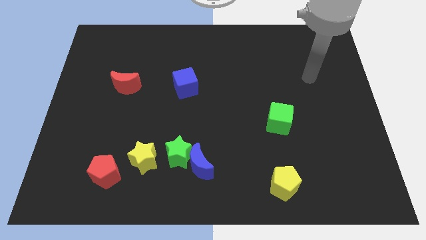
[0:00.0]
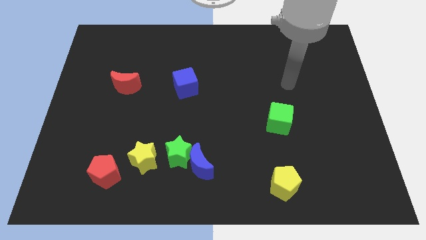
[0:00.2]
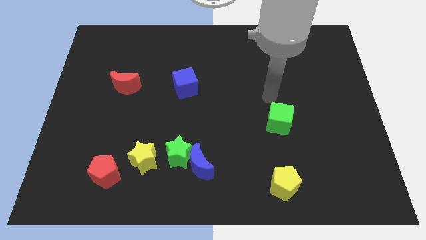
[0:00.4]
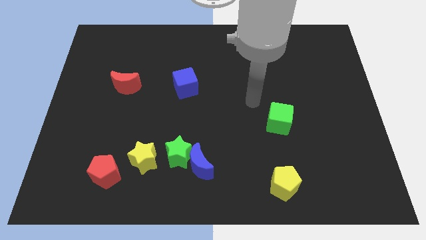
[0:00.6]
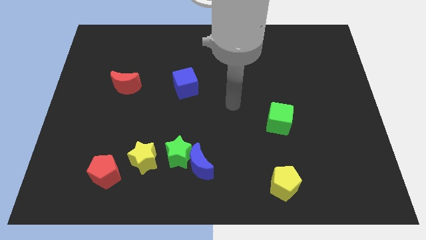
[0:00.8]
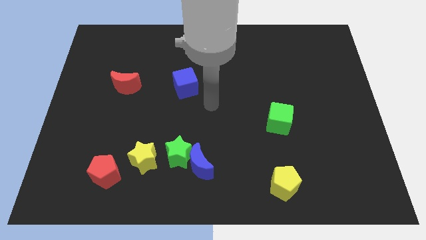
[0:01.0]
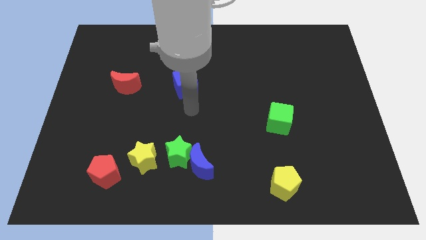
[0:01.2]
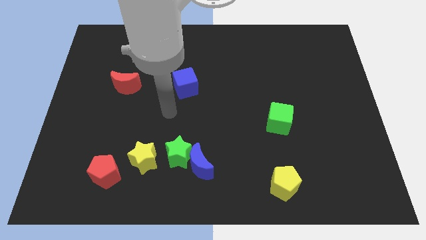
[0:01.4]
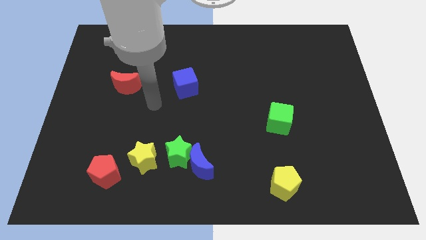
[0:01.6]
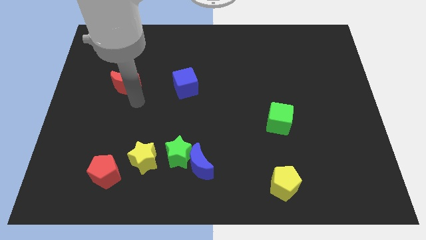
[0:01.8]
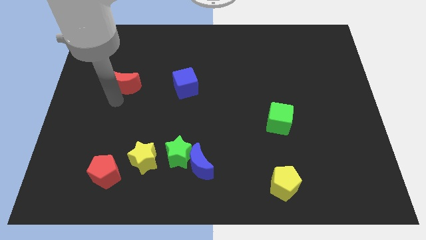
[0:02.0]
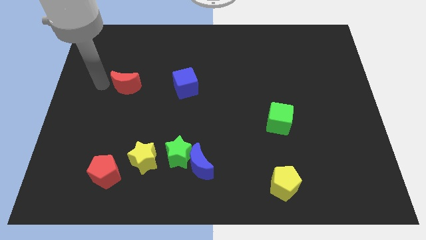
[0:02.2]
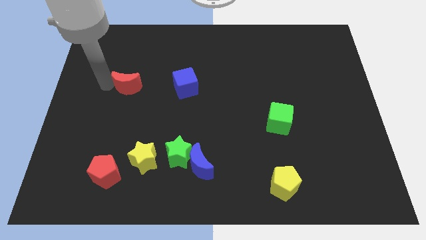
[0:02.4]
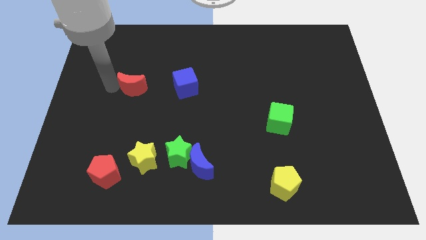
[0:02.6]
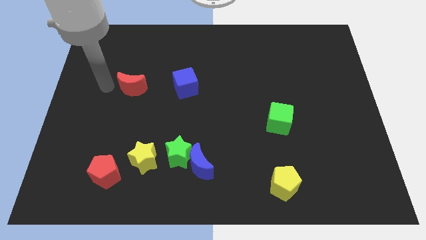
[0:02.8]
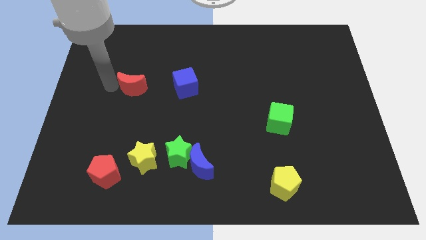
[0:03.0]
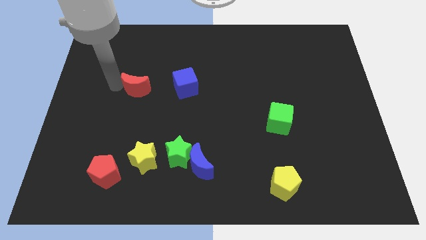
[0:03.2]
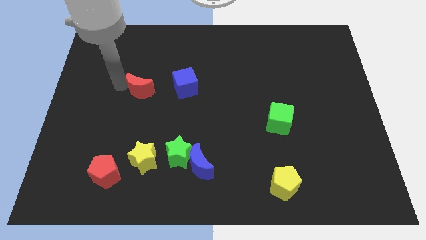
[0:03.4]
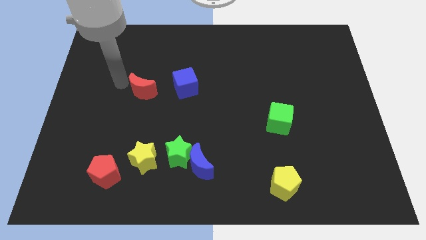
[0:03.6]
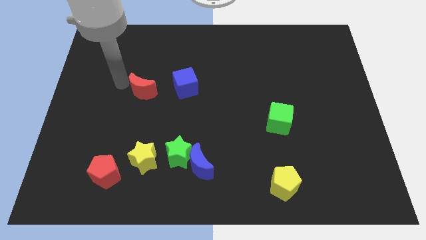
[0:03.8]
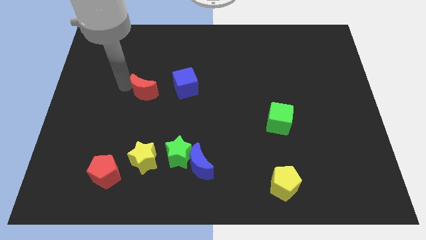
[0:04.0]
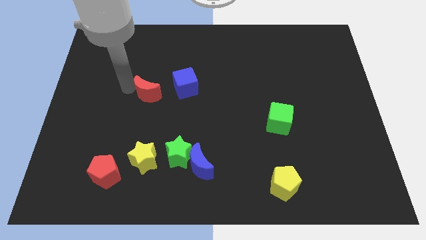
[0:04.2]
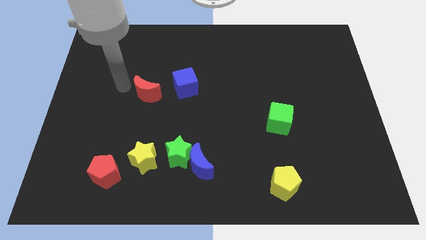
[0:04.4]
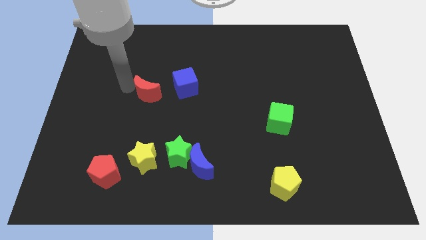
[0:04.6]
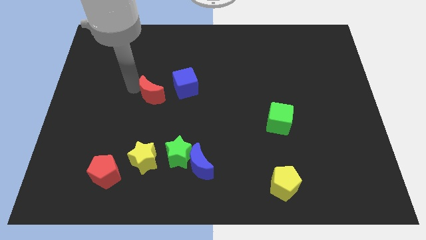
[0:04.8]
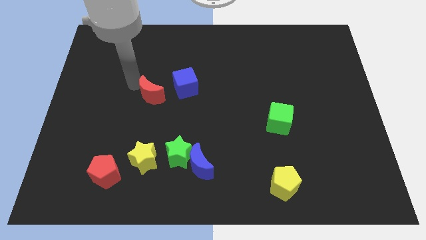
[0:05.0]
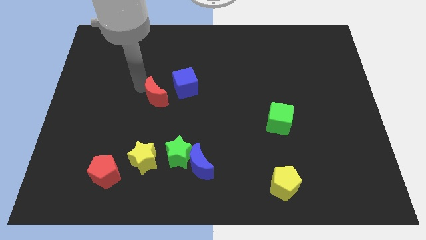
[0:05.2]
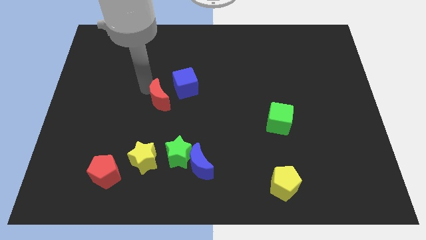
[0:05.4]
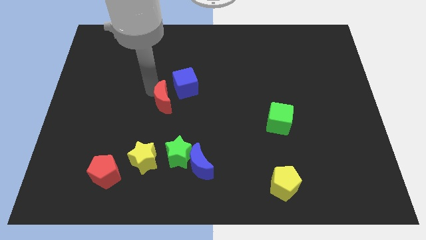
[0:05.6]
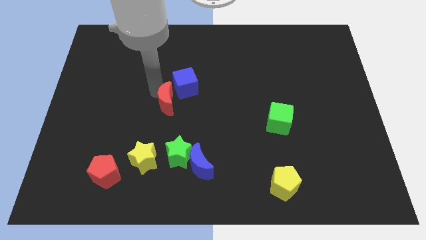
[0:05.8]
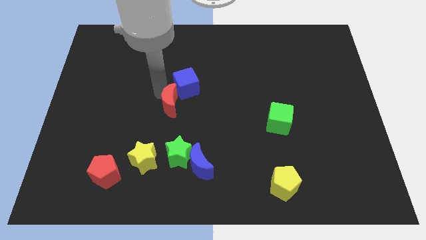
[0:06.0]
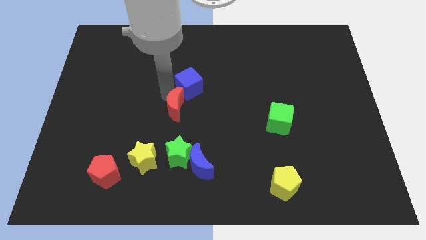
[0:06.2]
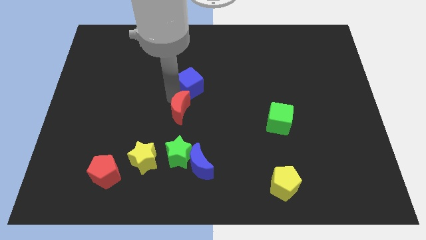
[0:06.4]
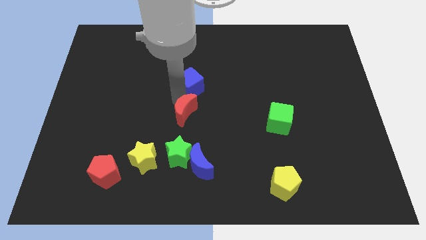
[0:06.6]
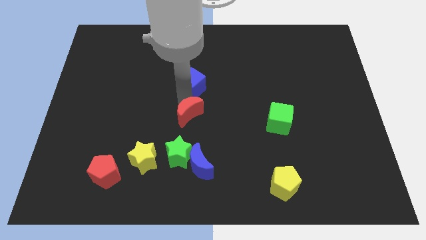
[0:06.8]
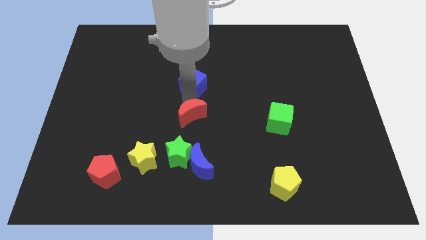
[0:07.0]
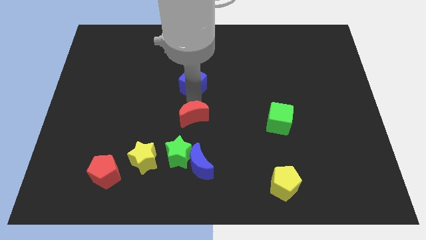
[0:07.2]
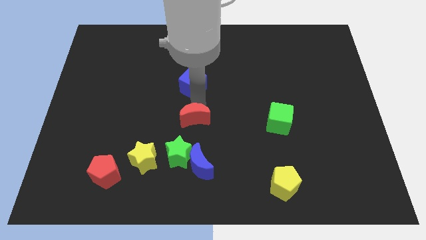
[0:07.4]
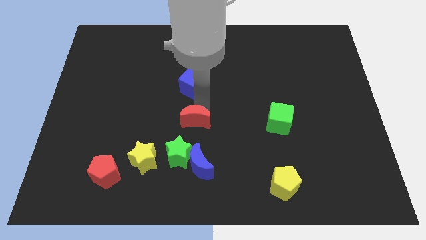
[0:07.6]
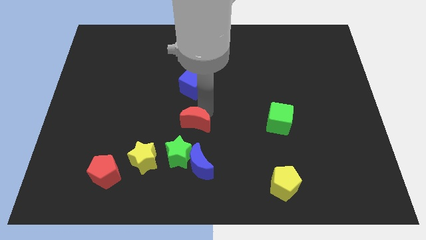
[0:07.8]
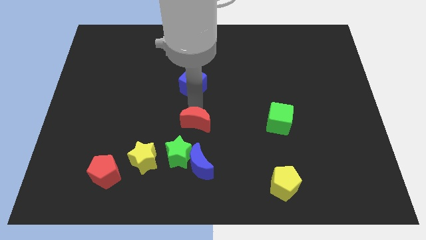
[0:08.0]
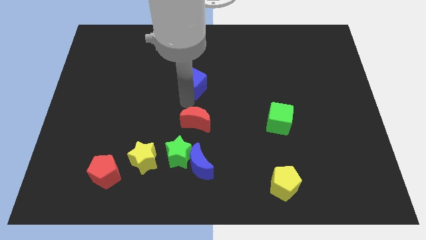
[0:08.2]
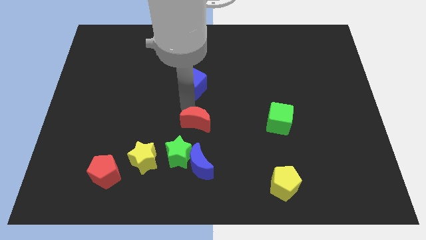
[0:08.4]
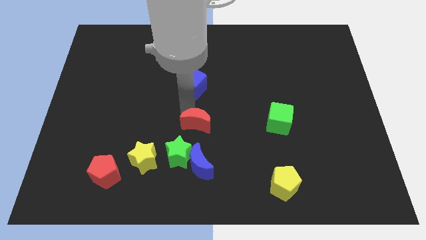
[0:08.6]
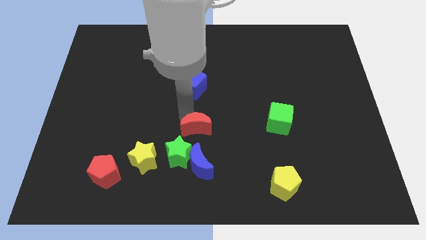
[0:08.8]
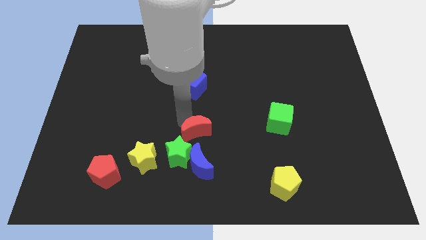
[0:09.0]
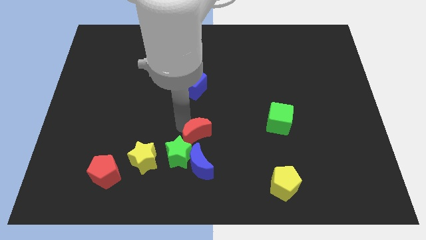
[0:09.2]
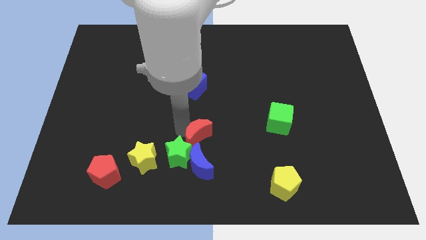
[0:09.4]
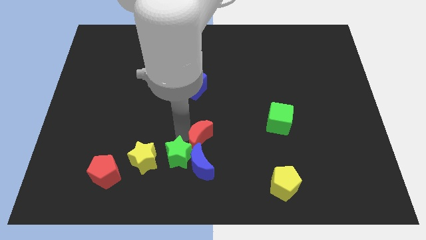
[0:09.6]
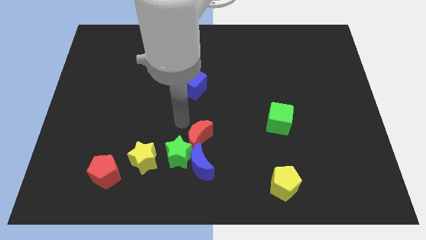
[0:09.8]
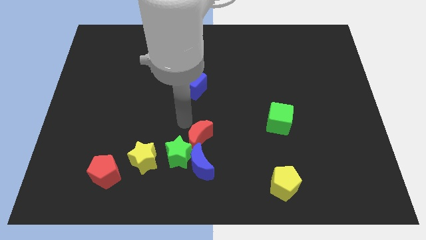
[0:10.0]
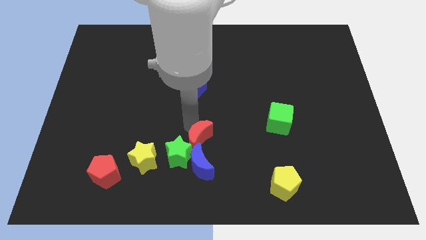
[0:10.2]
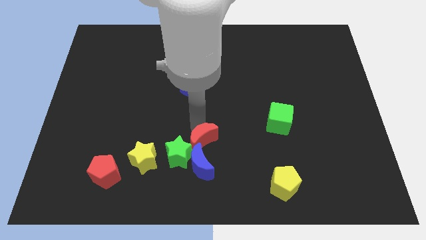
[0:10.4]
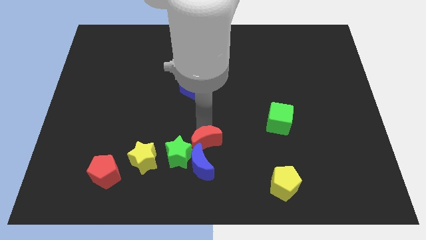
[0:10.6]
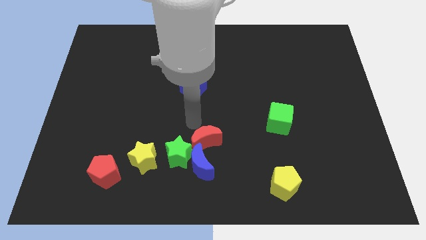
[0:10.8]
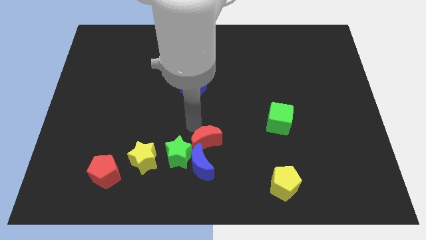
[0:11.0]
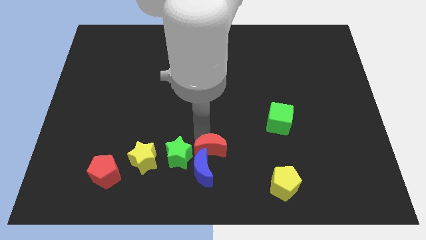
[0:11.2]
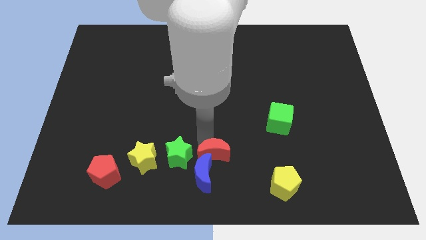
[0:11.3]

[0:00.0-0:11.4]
push the red moon to the bottom side
